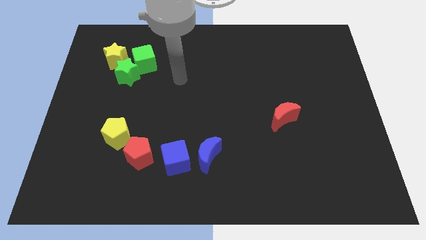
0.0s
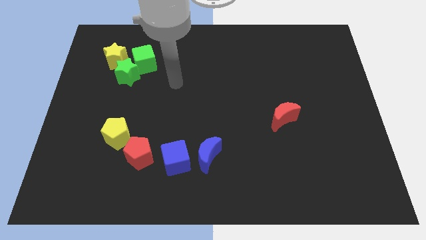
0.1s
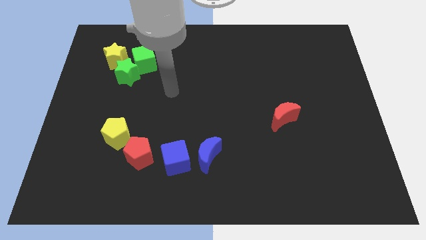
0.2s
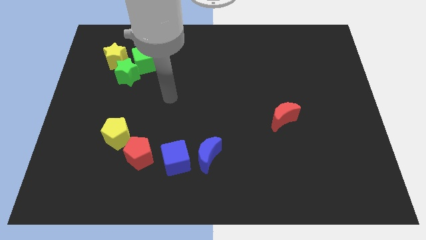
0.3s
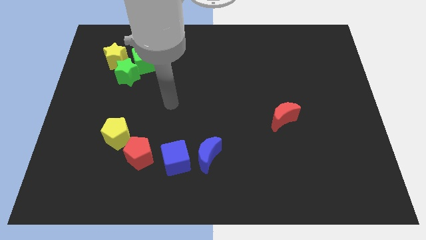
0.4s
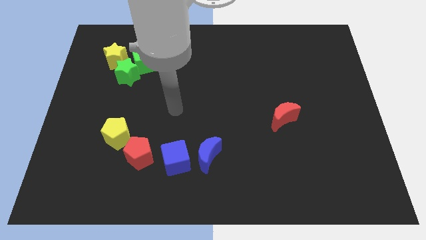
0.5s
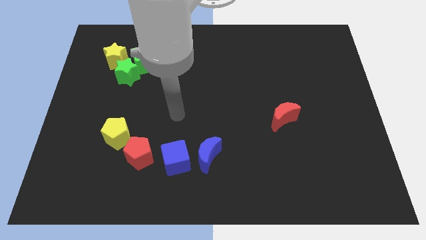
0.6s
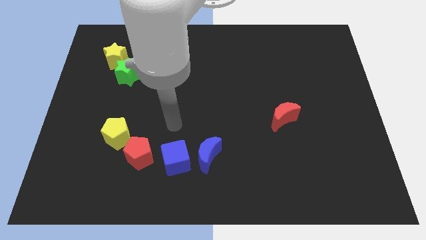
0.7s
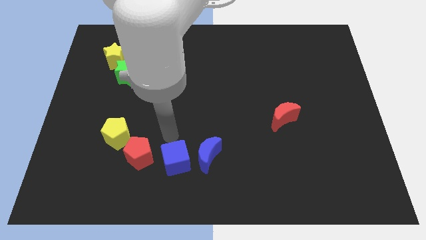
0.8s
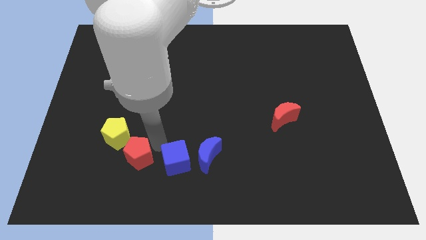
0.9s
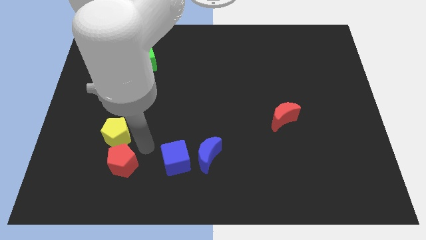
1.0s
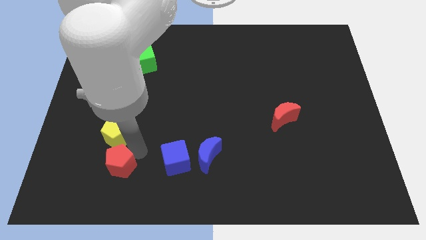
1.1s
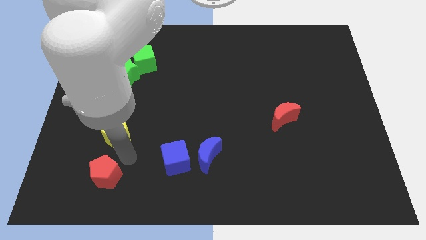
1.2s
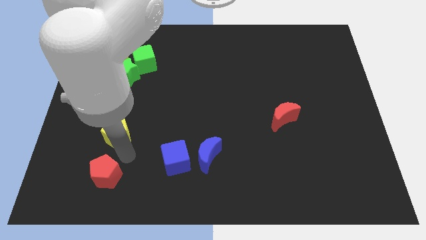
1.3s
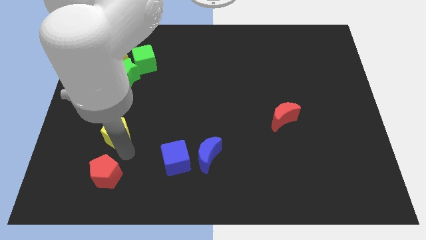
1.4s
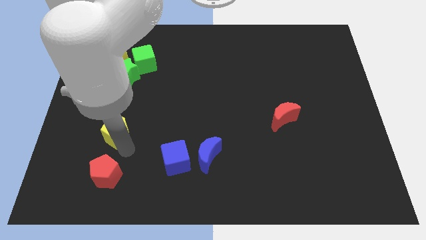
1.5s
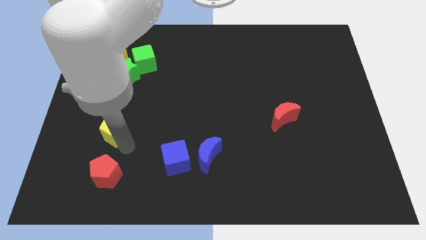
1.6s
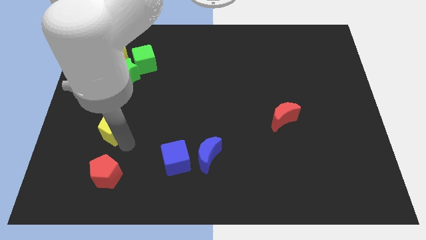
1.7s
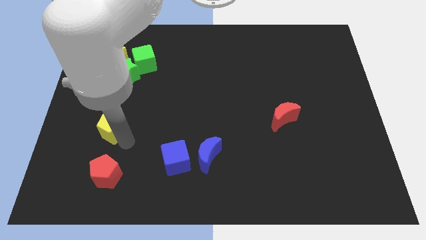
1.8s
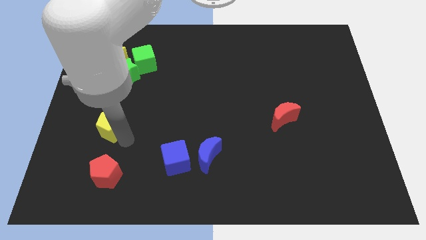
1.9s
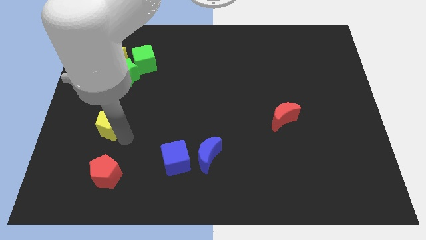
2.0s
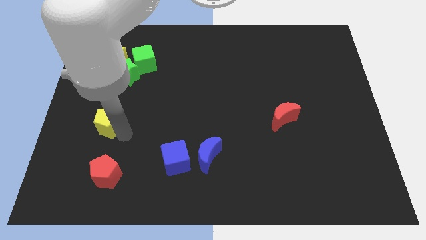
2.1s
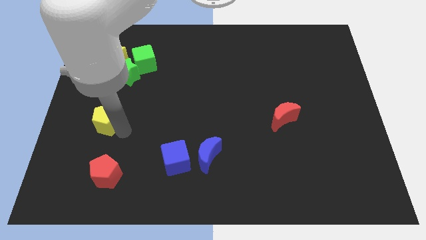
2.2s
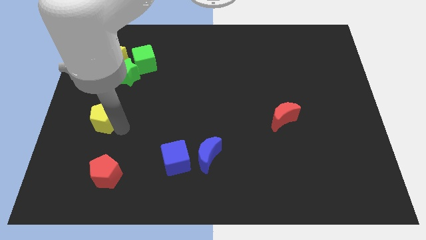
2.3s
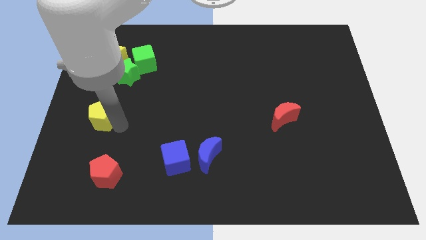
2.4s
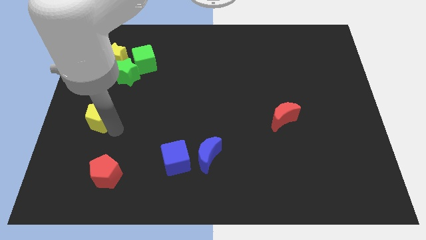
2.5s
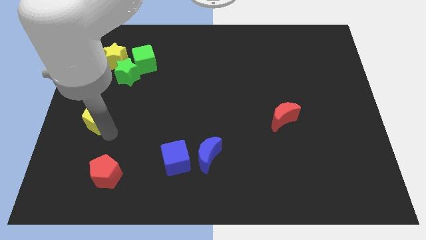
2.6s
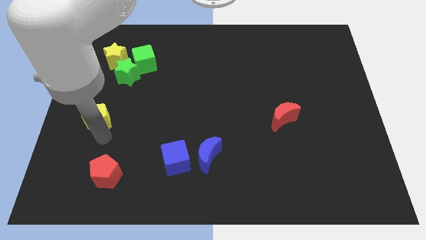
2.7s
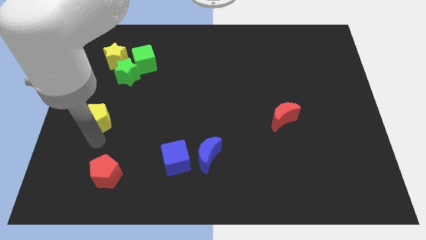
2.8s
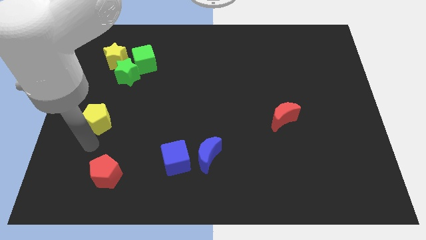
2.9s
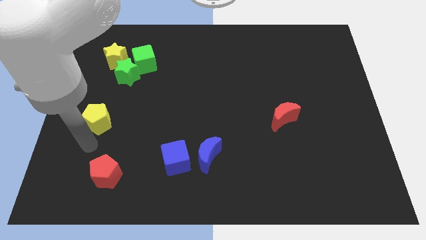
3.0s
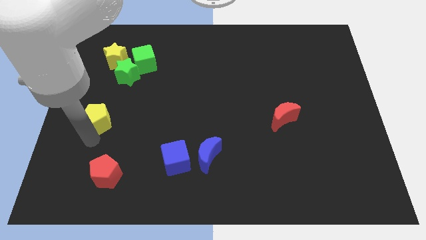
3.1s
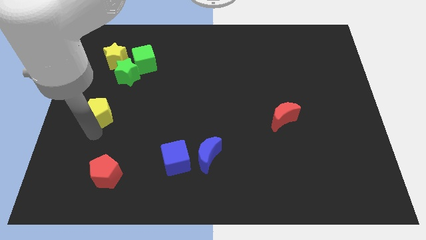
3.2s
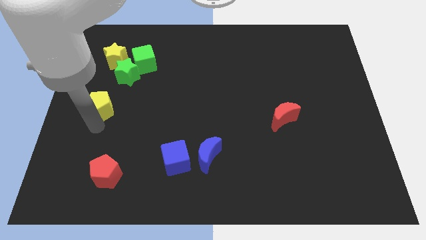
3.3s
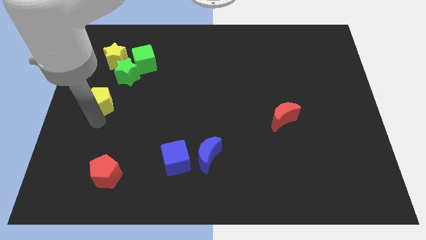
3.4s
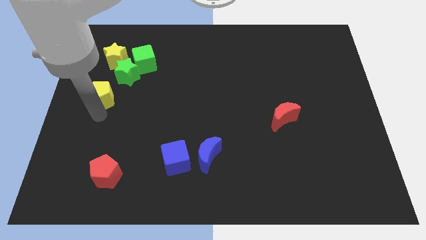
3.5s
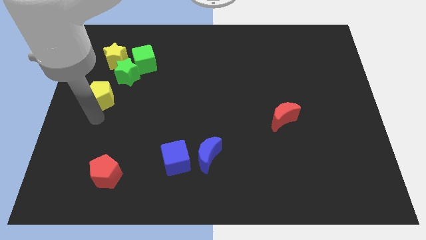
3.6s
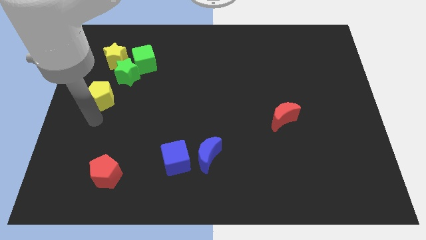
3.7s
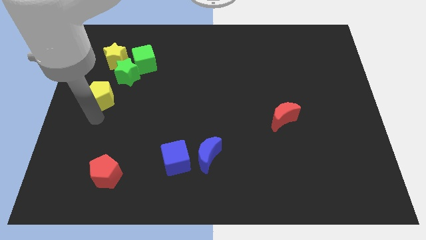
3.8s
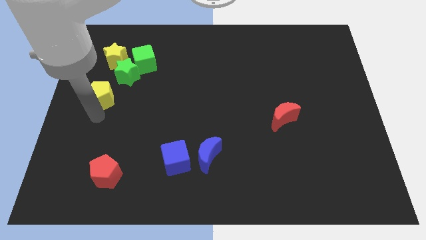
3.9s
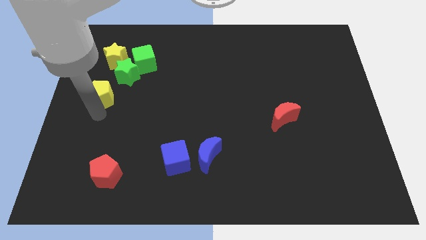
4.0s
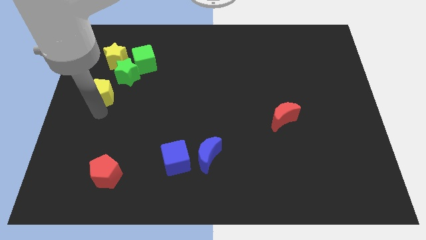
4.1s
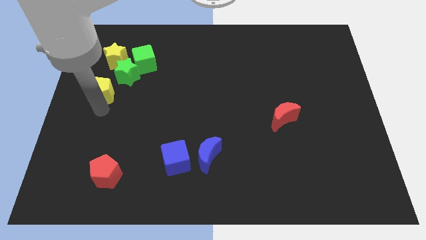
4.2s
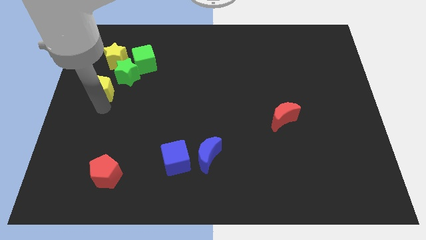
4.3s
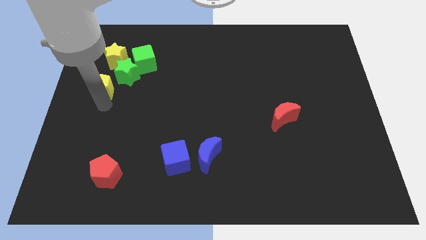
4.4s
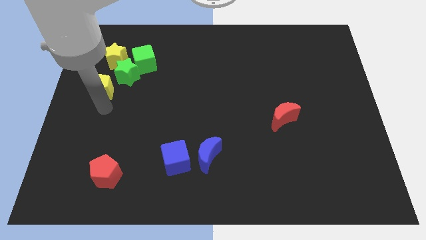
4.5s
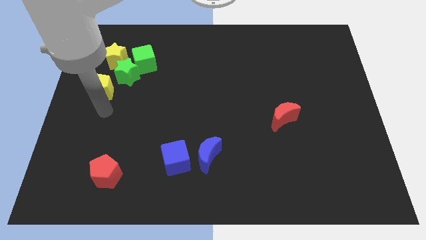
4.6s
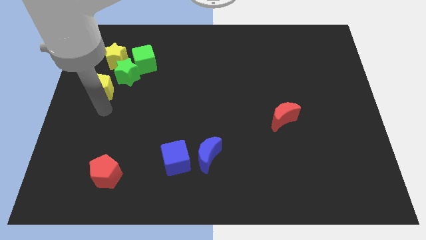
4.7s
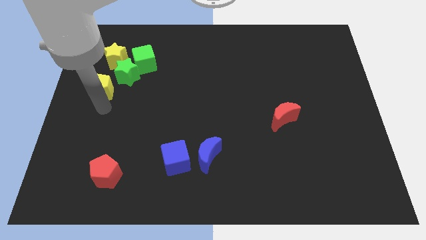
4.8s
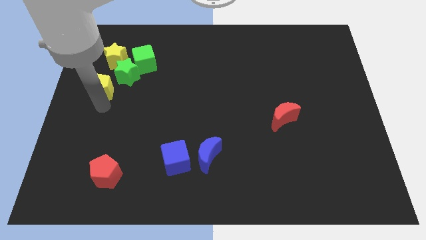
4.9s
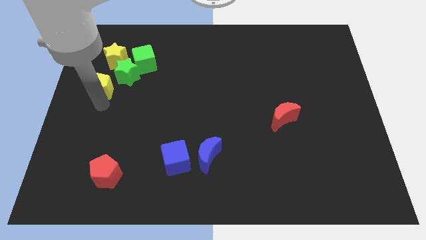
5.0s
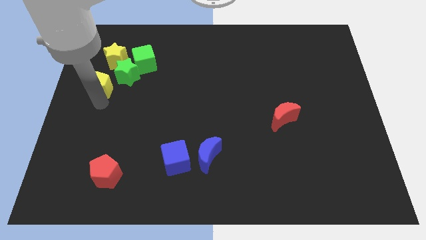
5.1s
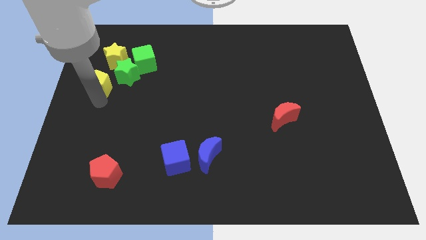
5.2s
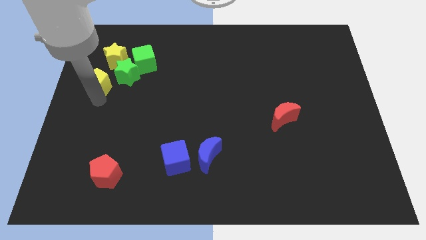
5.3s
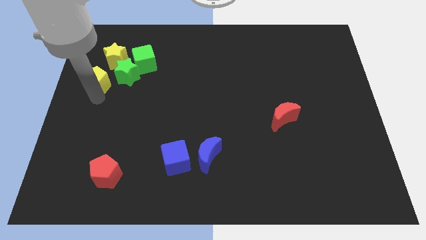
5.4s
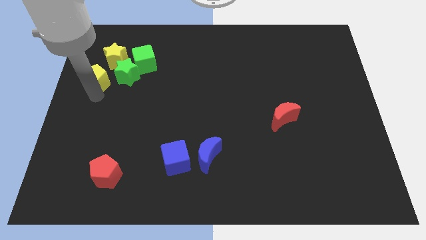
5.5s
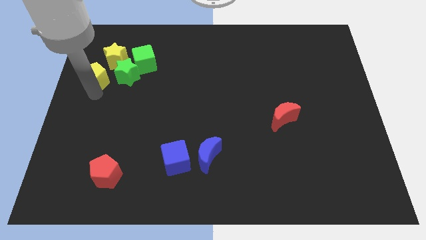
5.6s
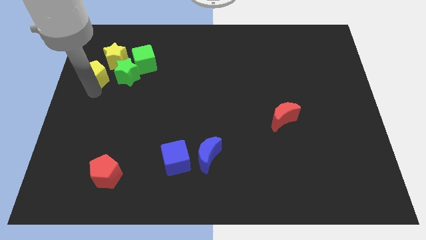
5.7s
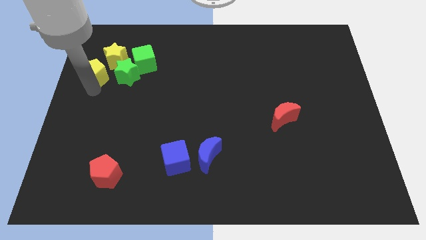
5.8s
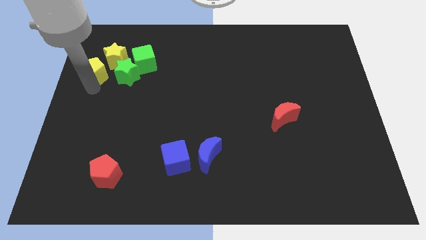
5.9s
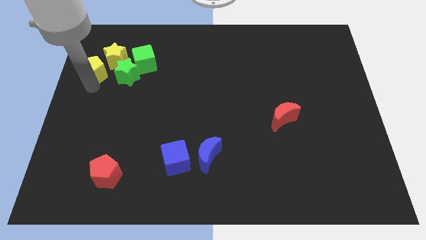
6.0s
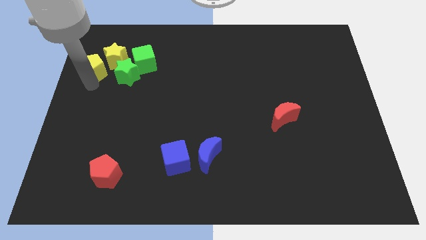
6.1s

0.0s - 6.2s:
push the yellow pentagon diagonally up and to the left of the green star

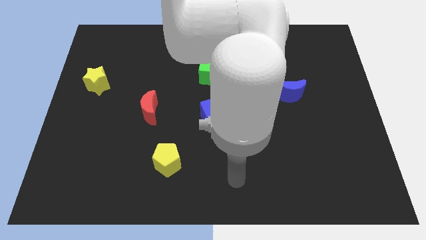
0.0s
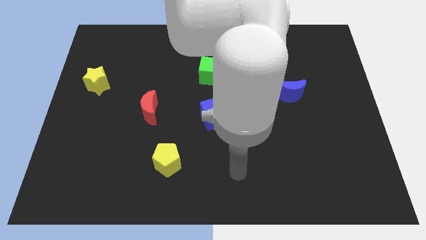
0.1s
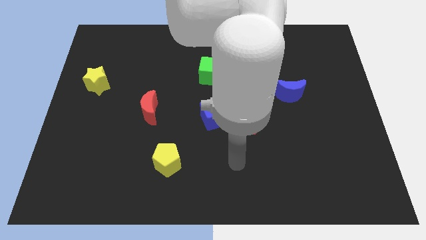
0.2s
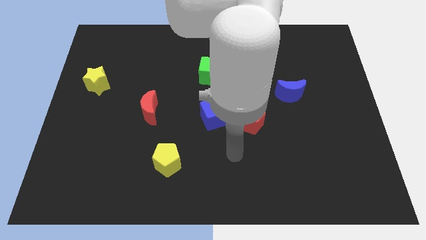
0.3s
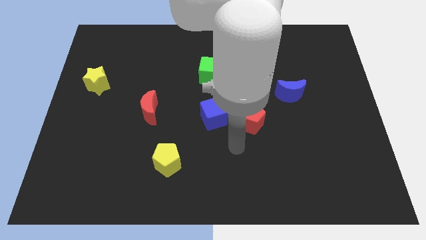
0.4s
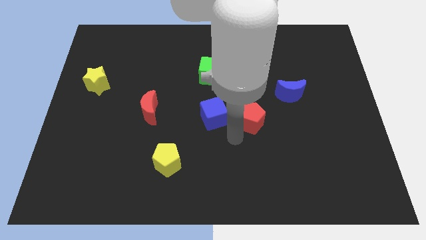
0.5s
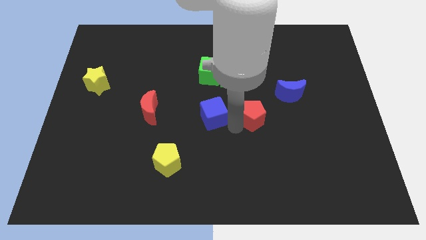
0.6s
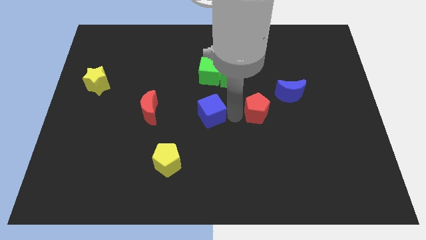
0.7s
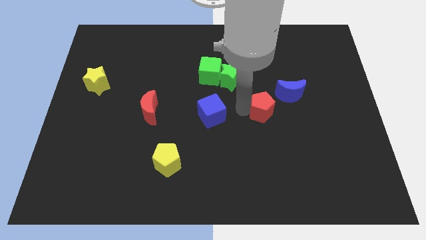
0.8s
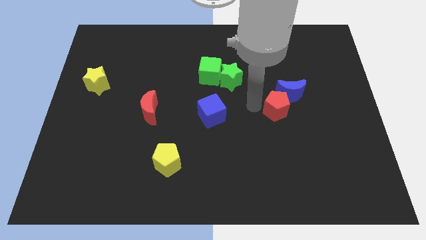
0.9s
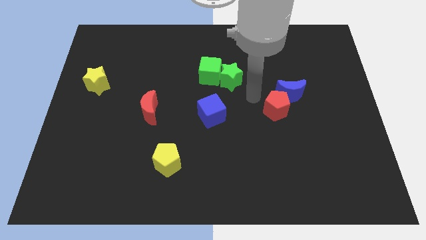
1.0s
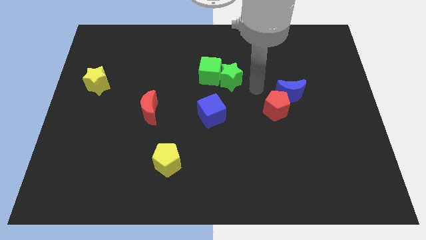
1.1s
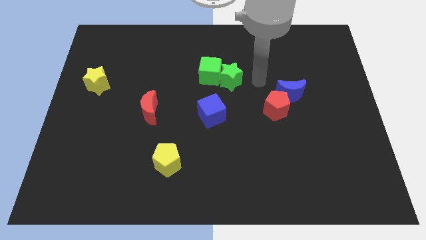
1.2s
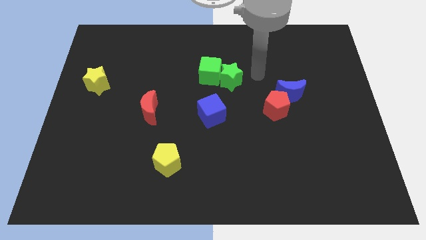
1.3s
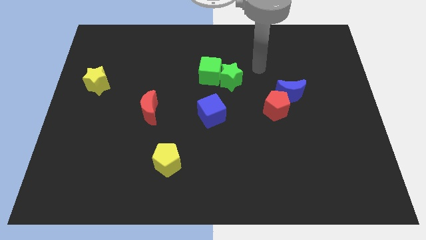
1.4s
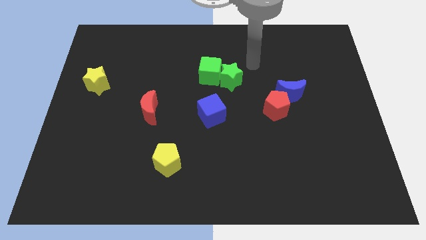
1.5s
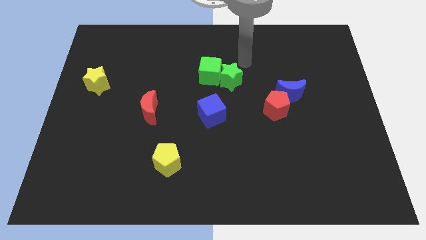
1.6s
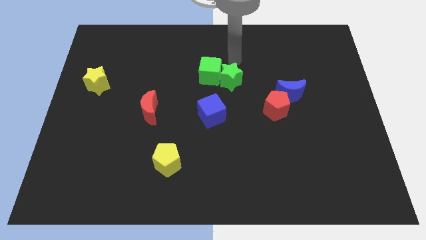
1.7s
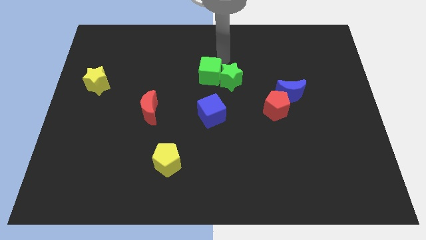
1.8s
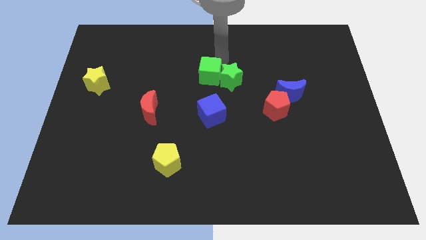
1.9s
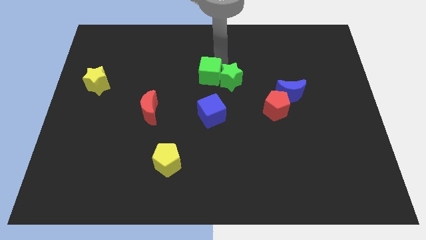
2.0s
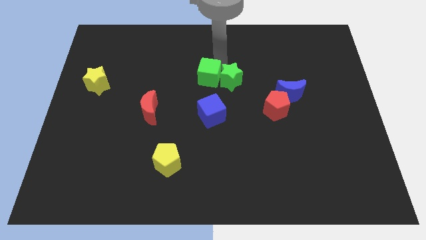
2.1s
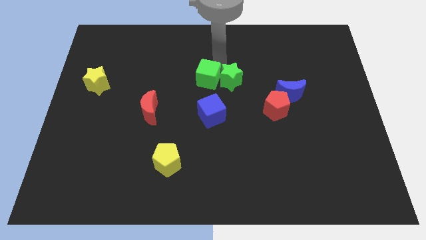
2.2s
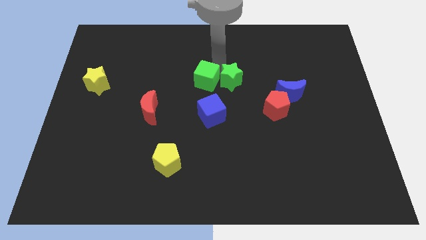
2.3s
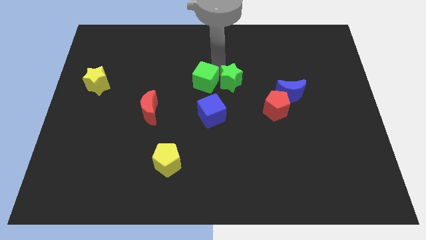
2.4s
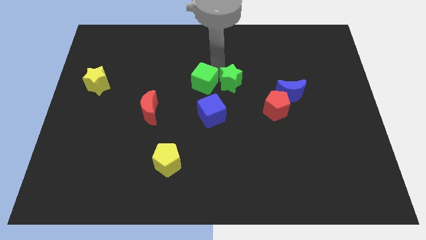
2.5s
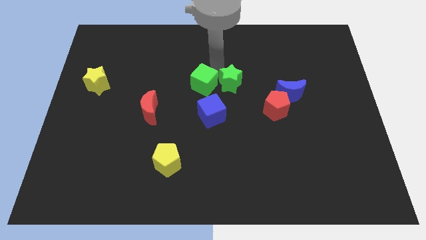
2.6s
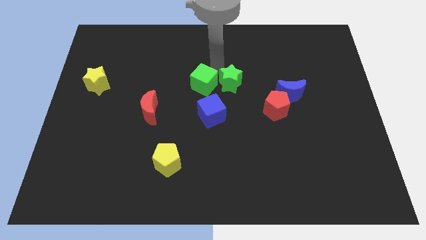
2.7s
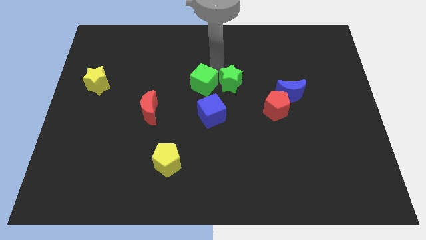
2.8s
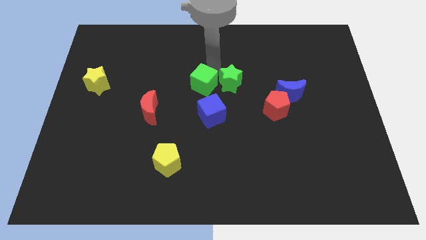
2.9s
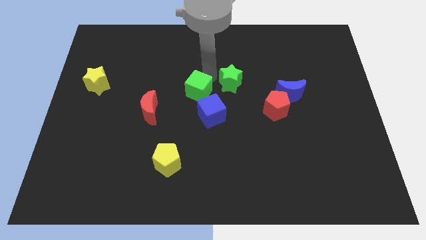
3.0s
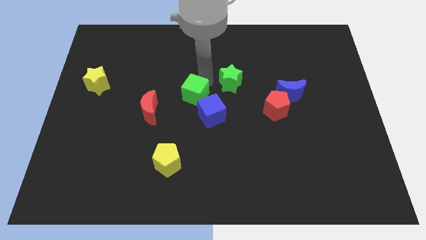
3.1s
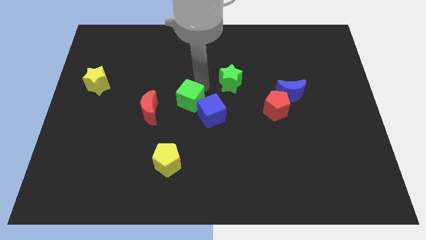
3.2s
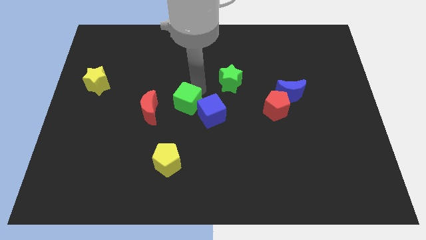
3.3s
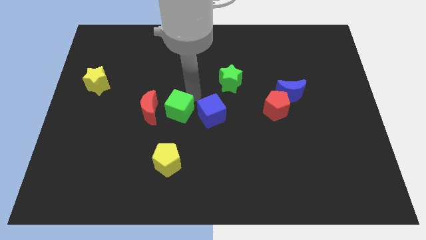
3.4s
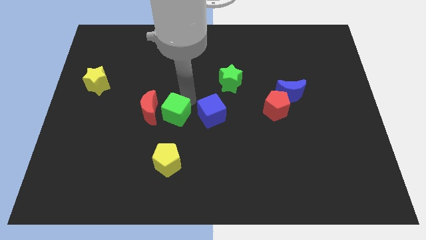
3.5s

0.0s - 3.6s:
put the green cube to the bottom right of the red moon
